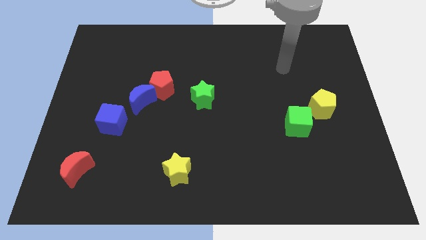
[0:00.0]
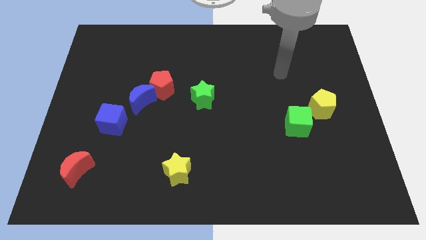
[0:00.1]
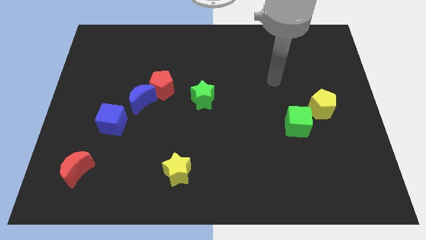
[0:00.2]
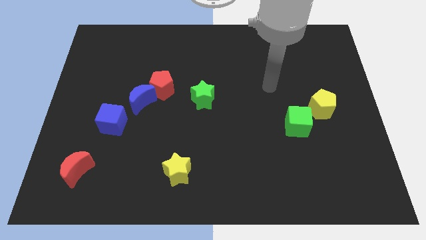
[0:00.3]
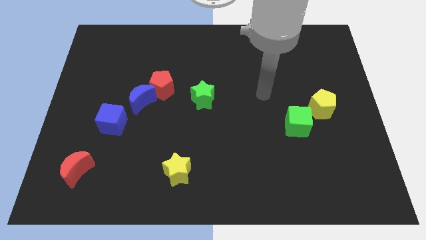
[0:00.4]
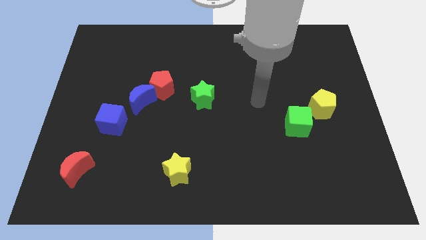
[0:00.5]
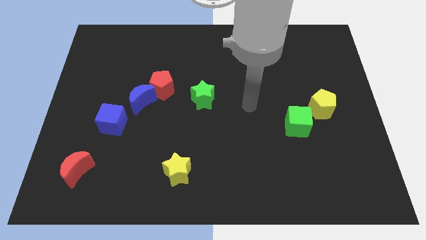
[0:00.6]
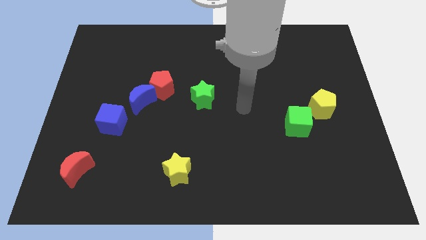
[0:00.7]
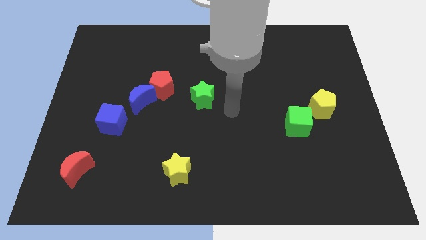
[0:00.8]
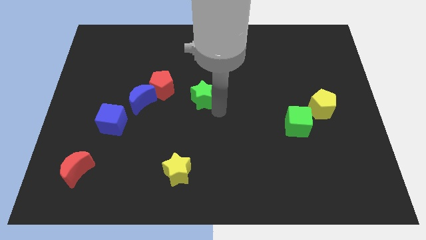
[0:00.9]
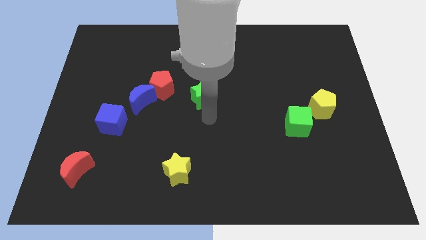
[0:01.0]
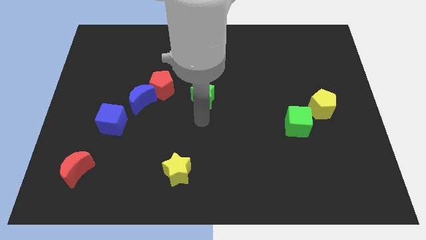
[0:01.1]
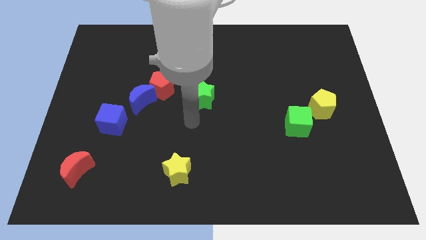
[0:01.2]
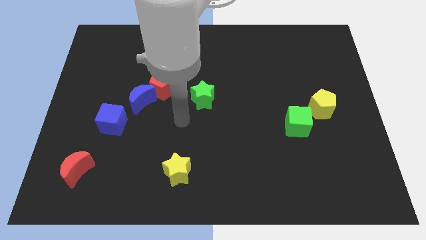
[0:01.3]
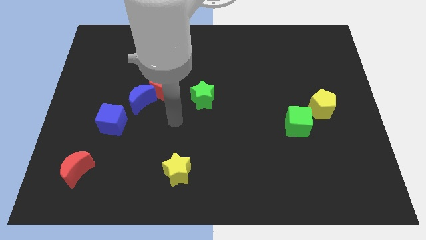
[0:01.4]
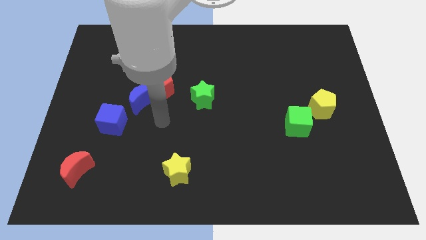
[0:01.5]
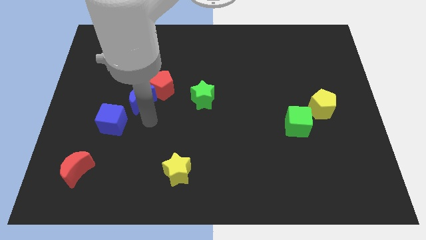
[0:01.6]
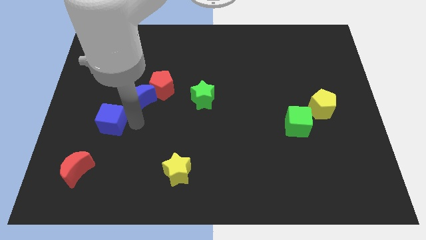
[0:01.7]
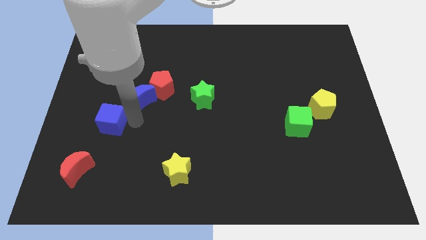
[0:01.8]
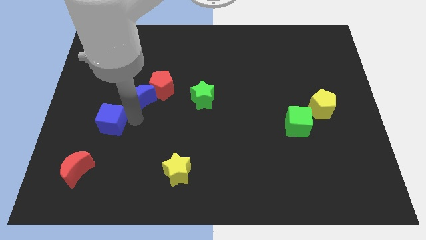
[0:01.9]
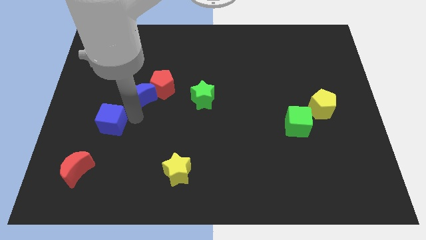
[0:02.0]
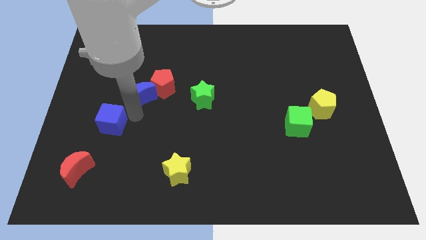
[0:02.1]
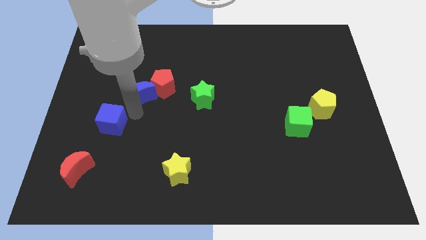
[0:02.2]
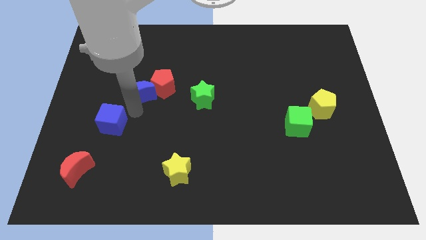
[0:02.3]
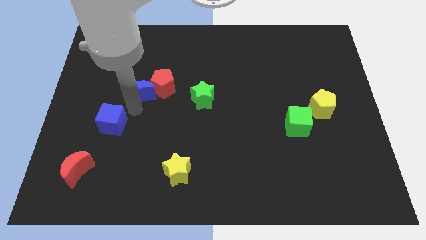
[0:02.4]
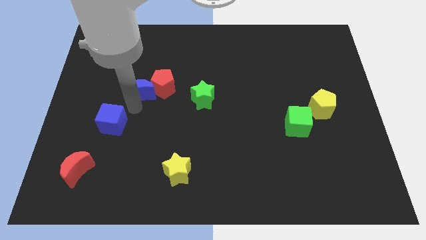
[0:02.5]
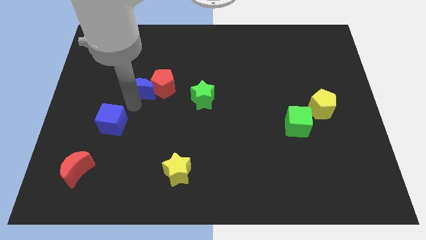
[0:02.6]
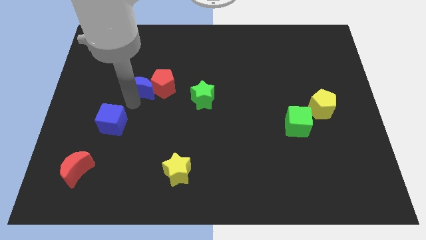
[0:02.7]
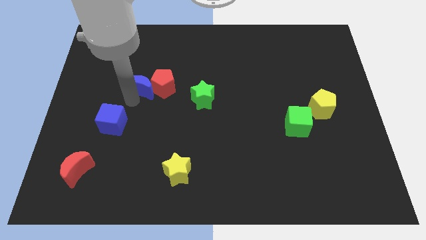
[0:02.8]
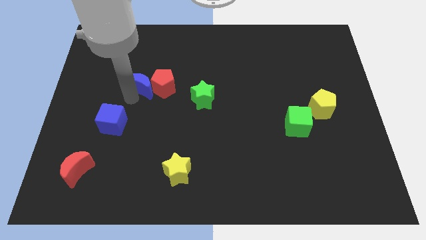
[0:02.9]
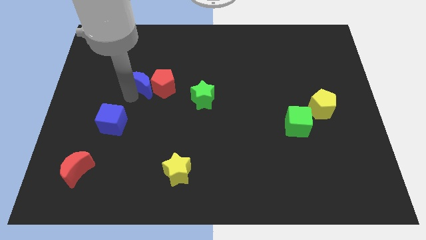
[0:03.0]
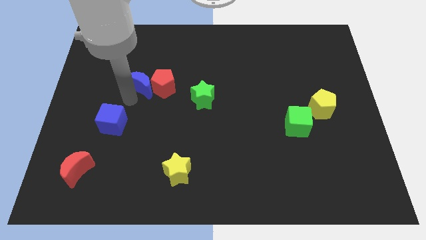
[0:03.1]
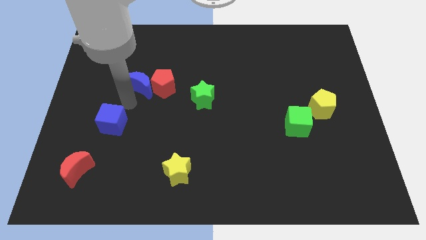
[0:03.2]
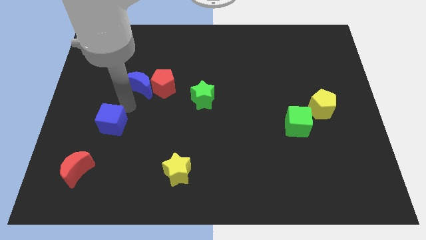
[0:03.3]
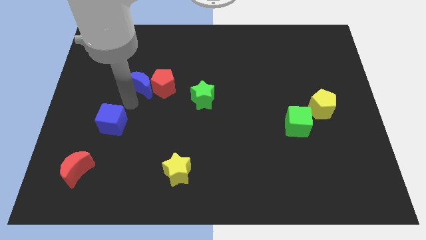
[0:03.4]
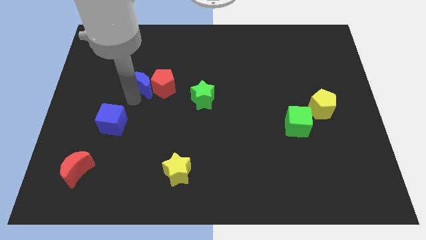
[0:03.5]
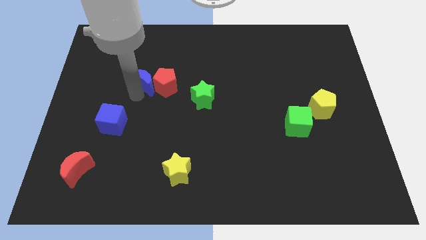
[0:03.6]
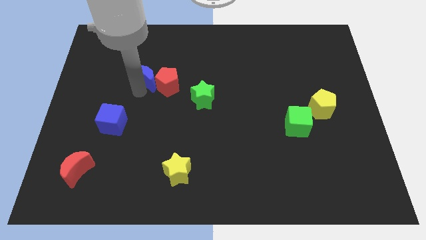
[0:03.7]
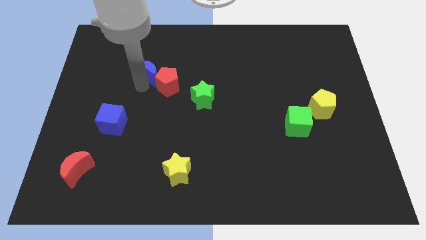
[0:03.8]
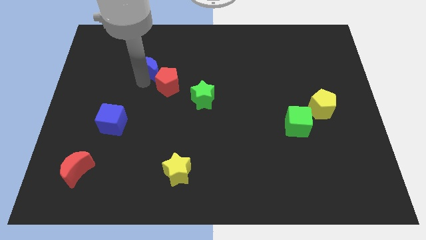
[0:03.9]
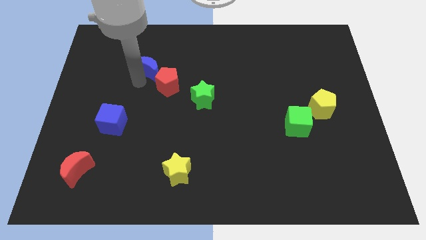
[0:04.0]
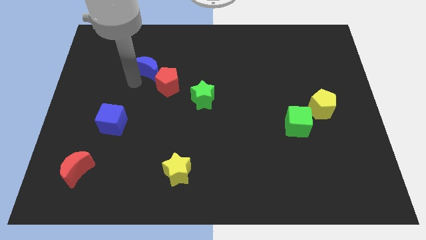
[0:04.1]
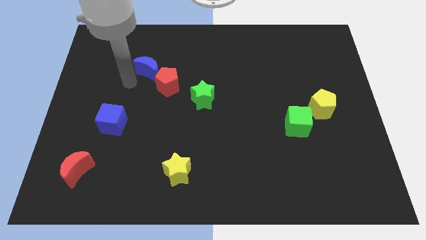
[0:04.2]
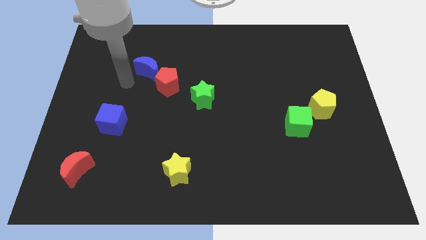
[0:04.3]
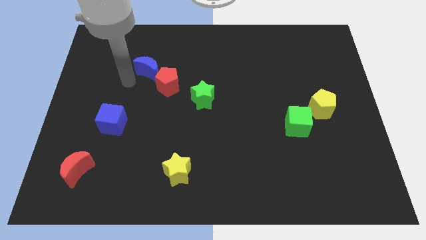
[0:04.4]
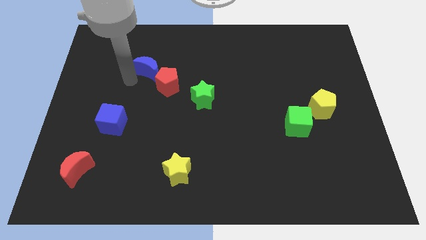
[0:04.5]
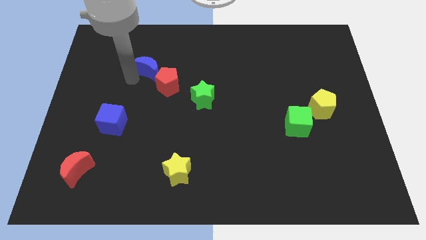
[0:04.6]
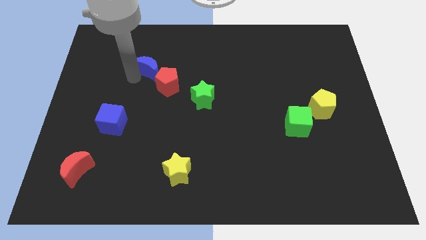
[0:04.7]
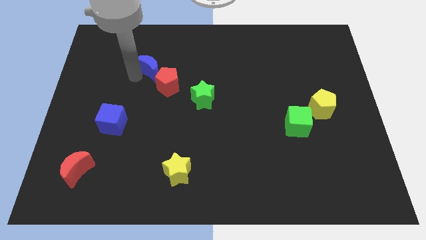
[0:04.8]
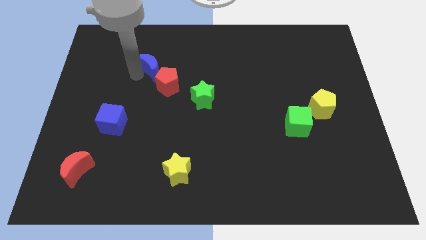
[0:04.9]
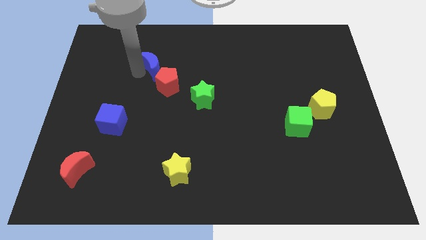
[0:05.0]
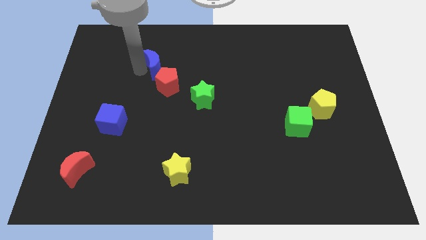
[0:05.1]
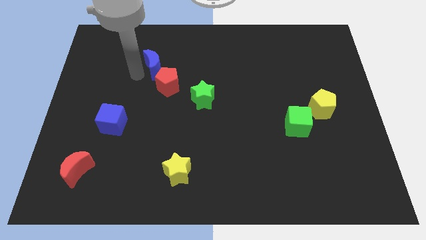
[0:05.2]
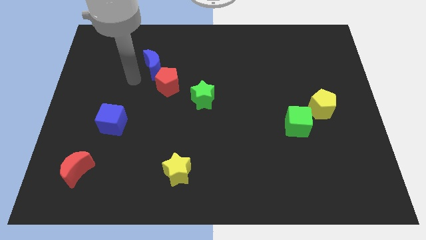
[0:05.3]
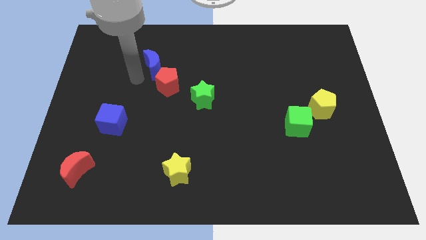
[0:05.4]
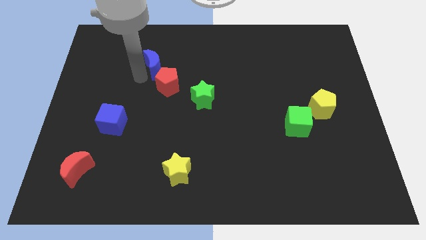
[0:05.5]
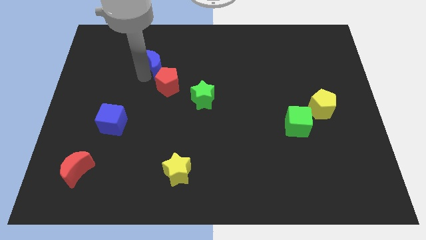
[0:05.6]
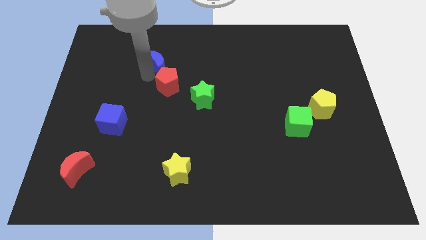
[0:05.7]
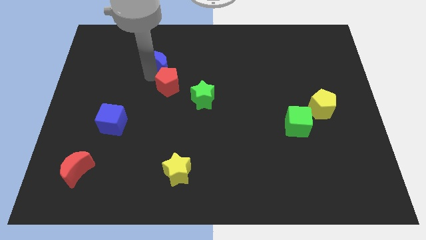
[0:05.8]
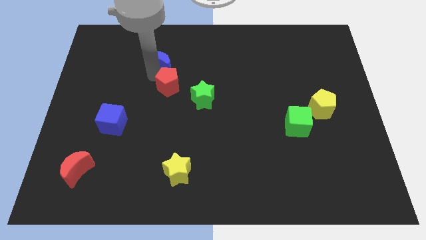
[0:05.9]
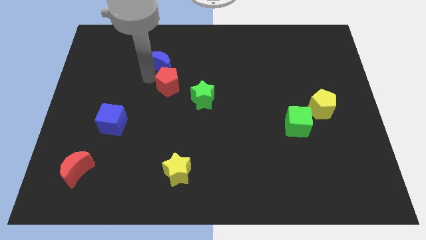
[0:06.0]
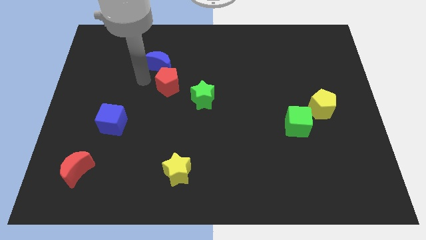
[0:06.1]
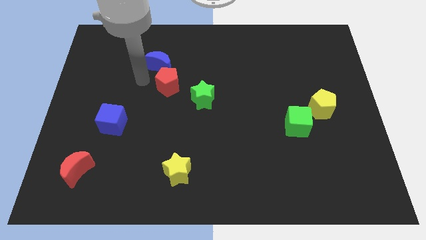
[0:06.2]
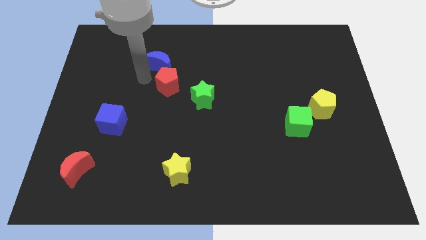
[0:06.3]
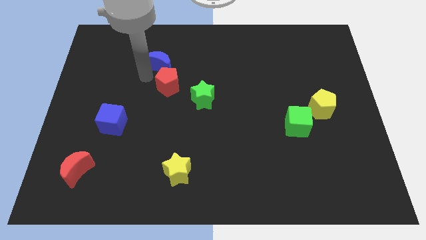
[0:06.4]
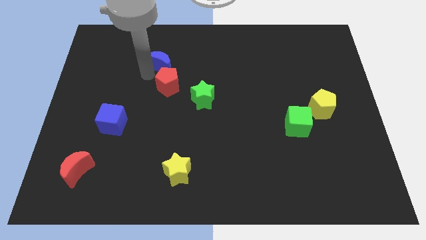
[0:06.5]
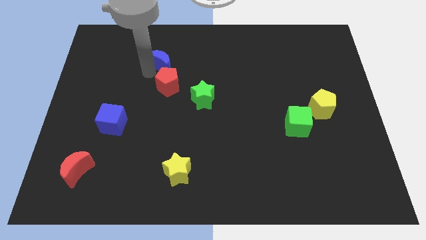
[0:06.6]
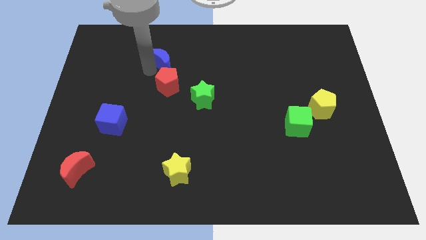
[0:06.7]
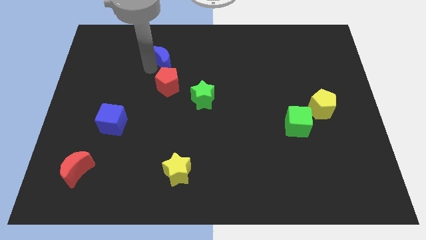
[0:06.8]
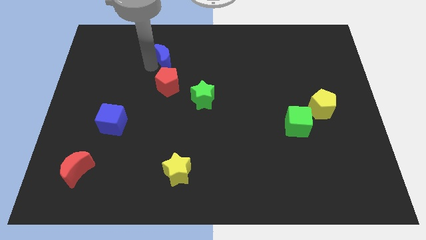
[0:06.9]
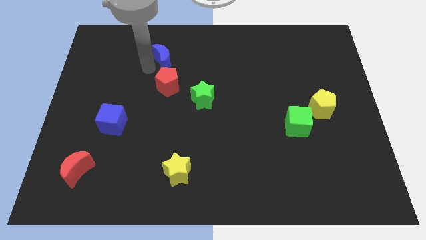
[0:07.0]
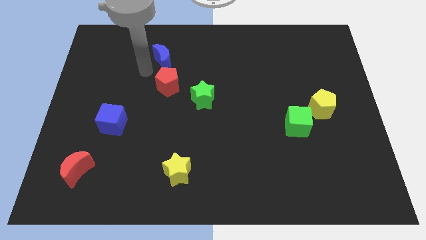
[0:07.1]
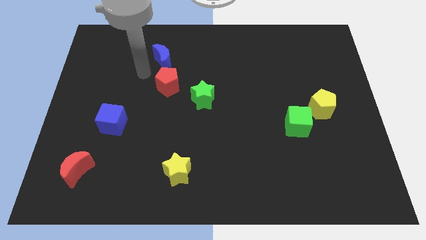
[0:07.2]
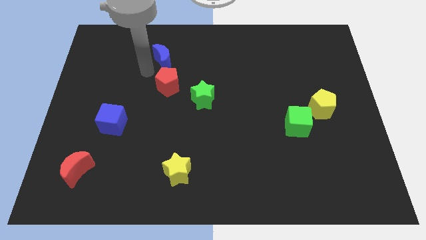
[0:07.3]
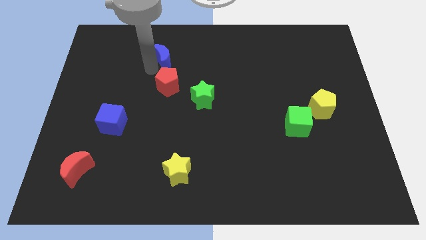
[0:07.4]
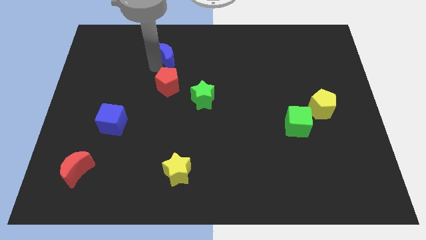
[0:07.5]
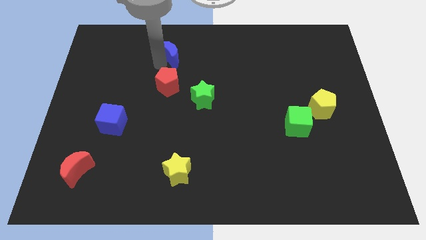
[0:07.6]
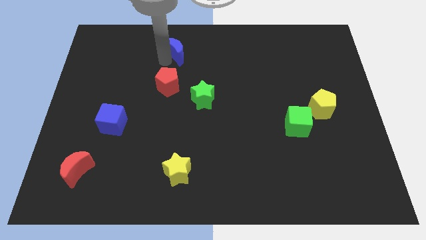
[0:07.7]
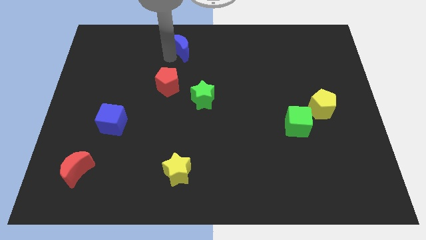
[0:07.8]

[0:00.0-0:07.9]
move the blue moon to the top side
